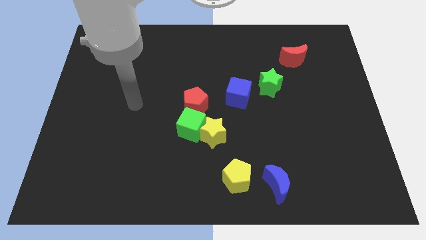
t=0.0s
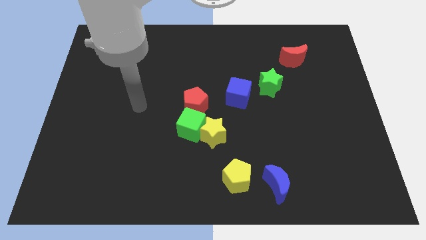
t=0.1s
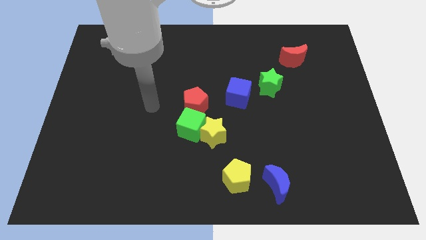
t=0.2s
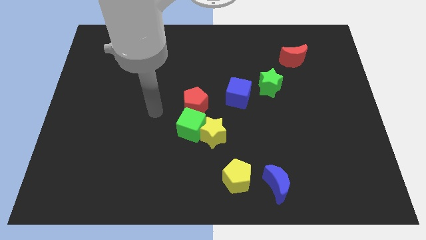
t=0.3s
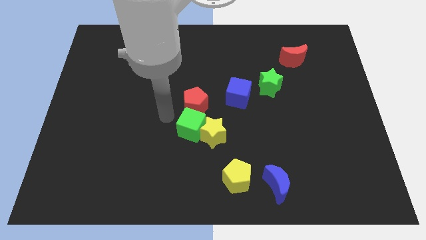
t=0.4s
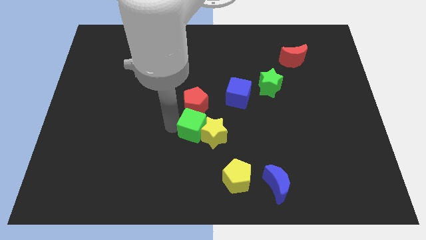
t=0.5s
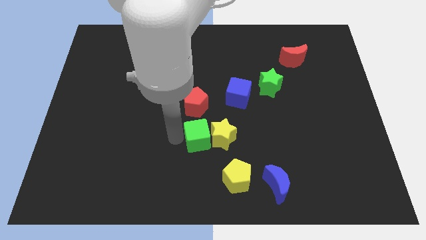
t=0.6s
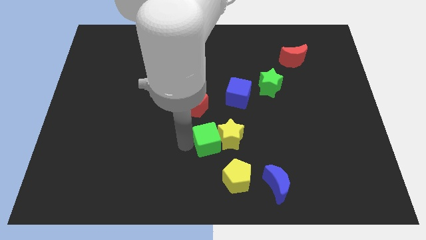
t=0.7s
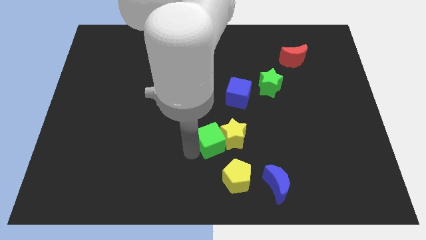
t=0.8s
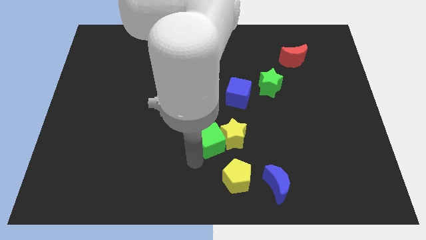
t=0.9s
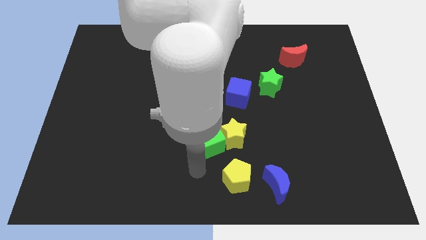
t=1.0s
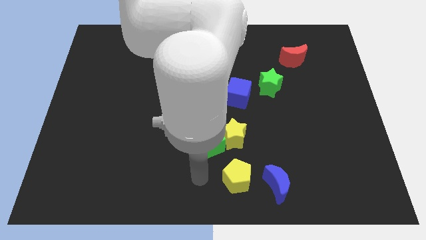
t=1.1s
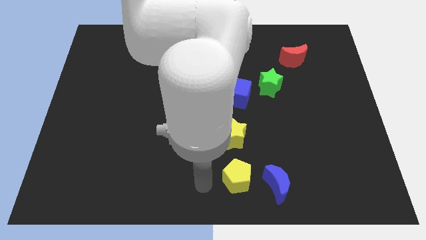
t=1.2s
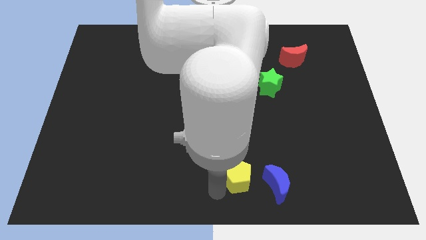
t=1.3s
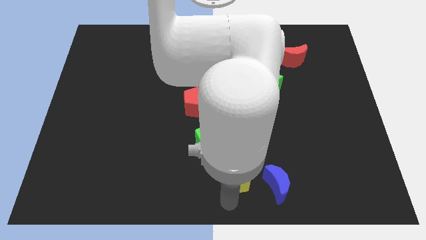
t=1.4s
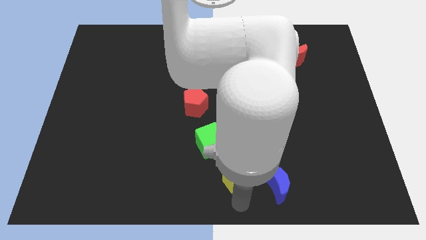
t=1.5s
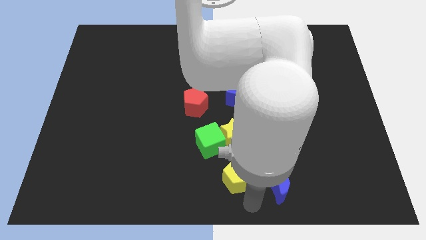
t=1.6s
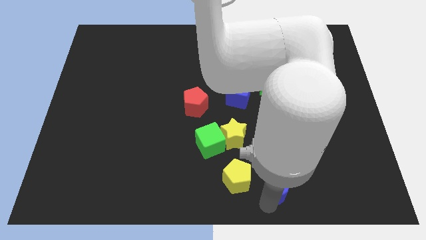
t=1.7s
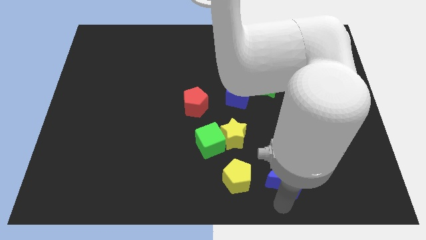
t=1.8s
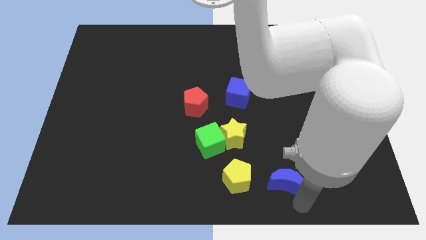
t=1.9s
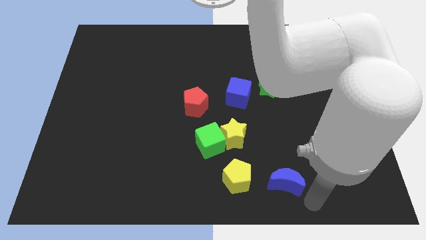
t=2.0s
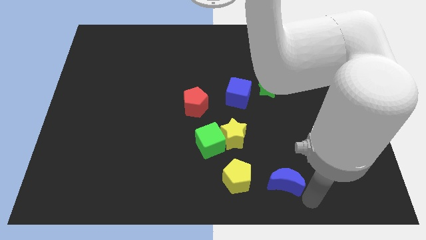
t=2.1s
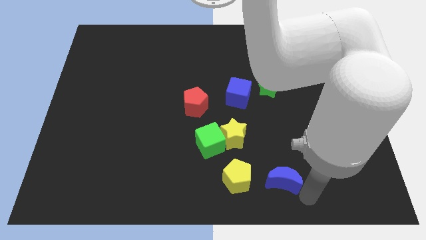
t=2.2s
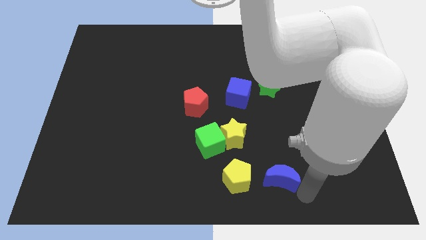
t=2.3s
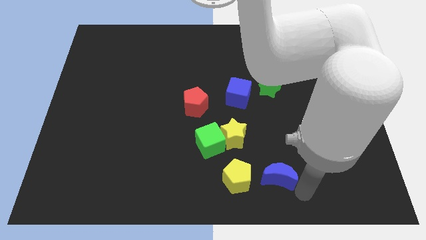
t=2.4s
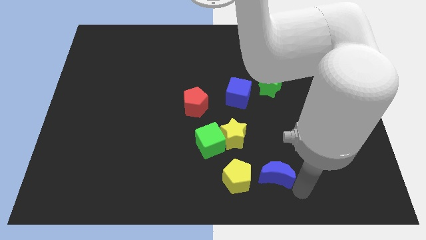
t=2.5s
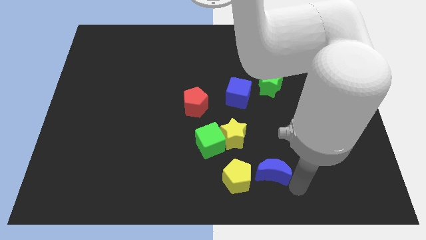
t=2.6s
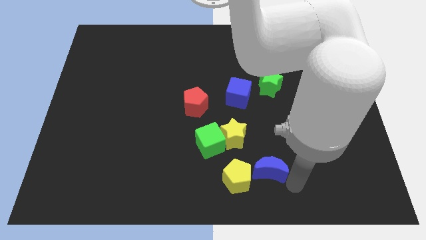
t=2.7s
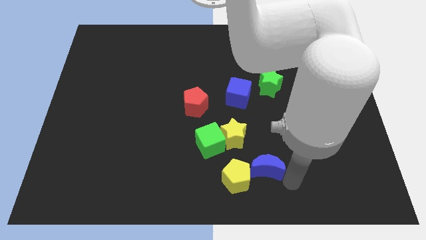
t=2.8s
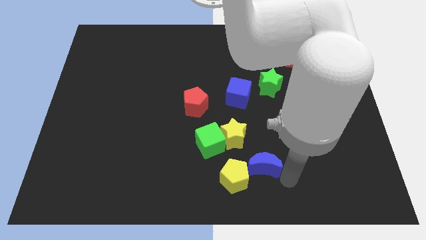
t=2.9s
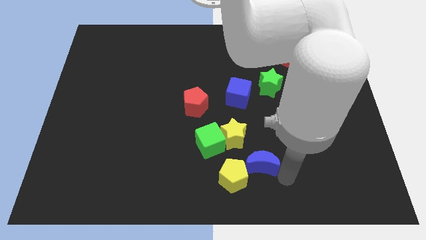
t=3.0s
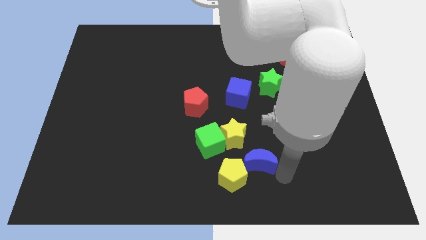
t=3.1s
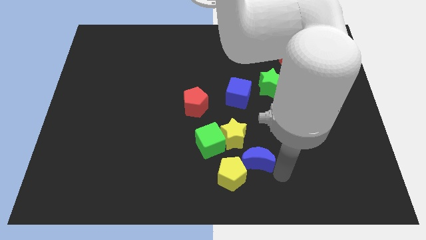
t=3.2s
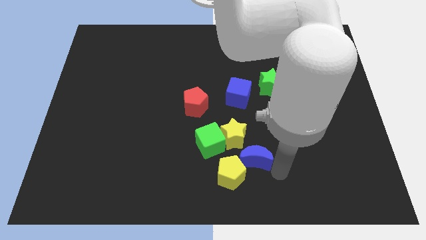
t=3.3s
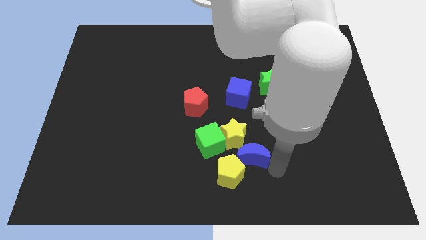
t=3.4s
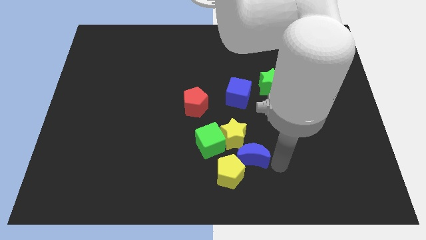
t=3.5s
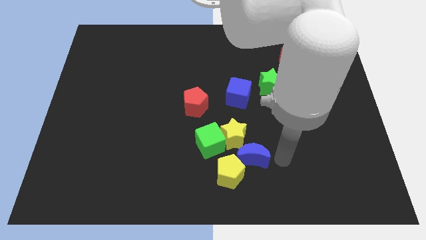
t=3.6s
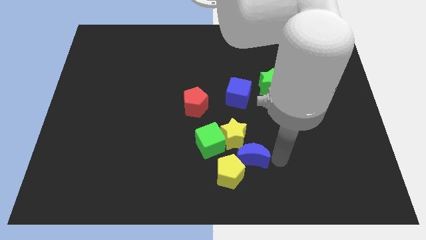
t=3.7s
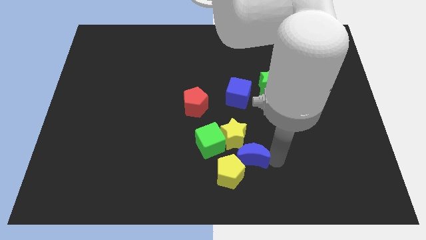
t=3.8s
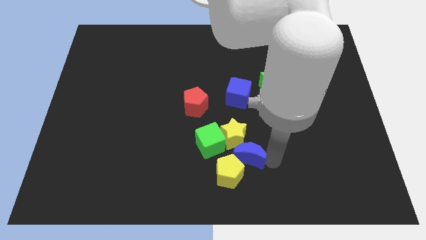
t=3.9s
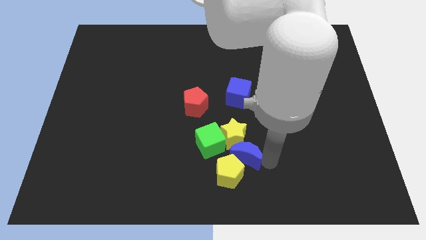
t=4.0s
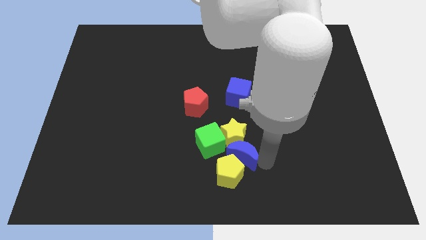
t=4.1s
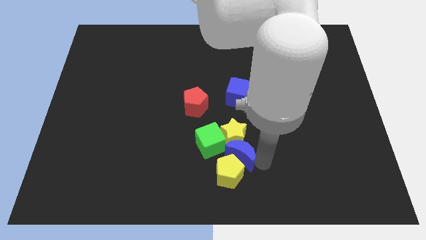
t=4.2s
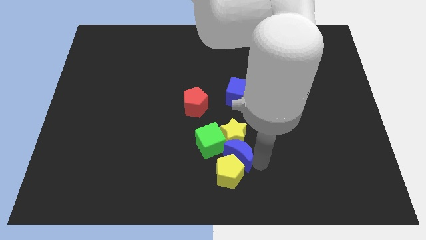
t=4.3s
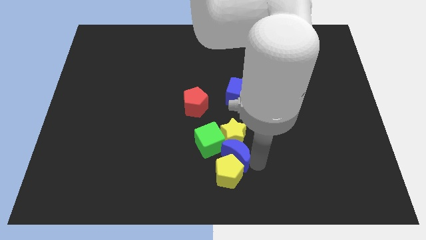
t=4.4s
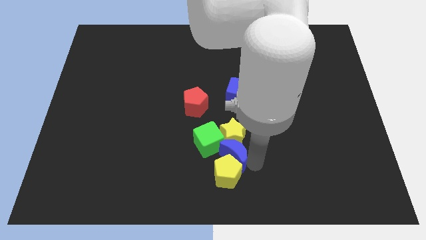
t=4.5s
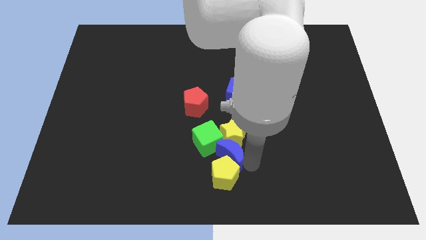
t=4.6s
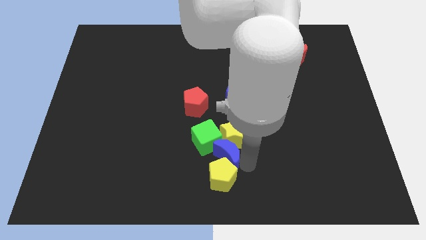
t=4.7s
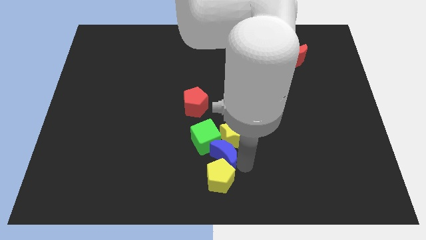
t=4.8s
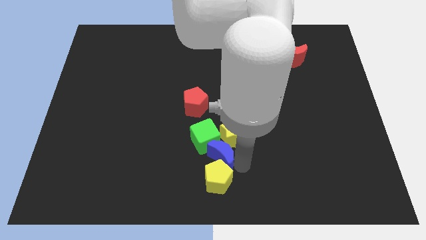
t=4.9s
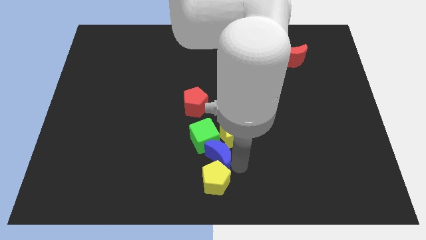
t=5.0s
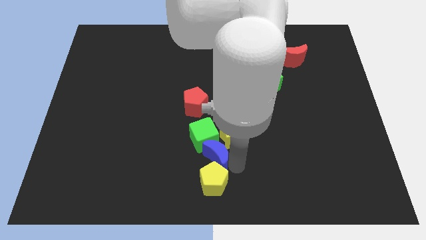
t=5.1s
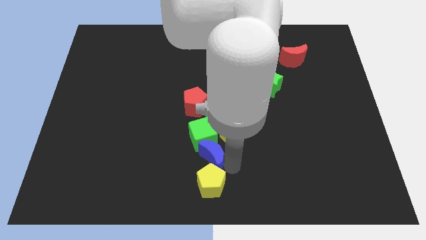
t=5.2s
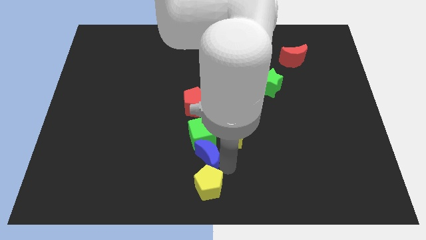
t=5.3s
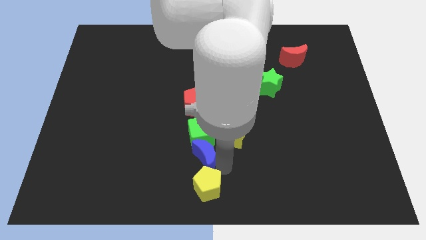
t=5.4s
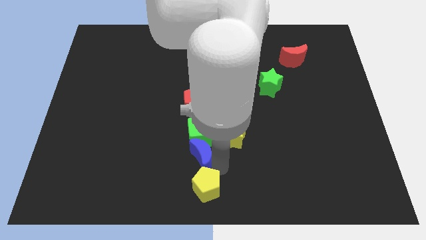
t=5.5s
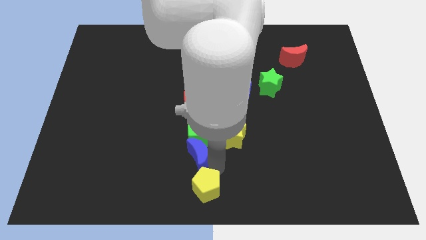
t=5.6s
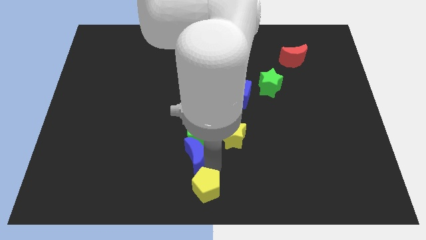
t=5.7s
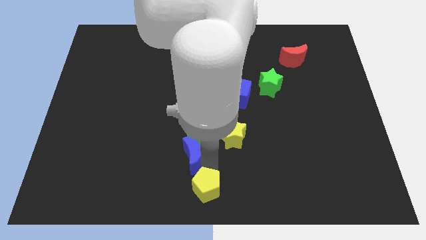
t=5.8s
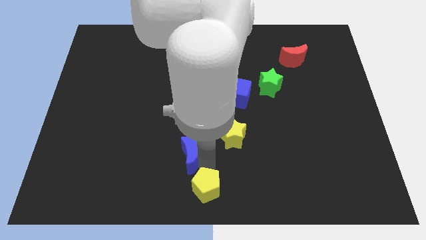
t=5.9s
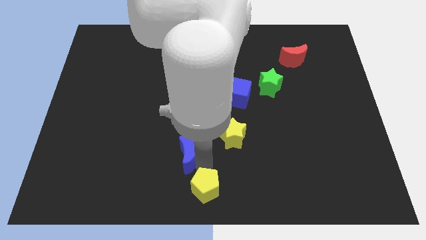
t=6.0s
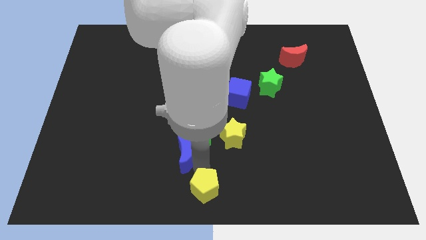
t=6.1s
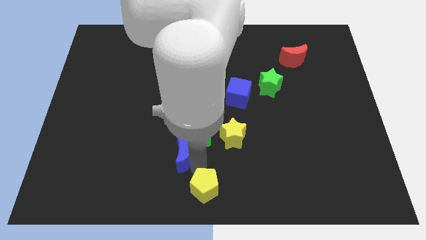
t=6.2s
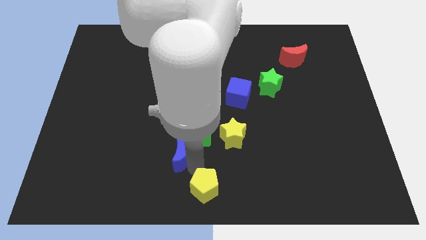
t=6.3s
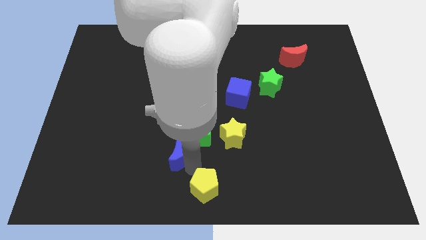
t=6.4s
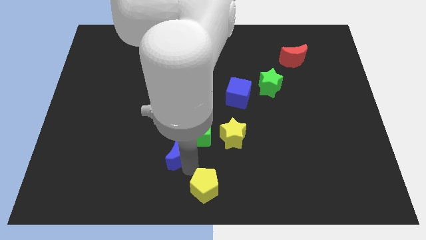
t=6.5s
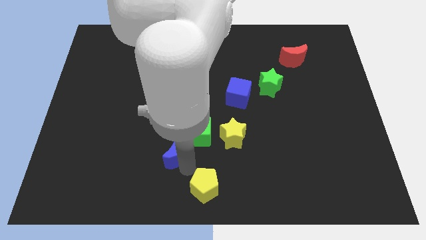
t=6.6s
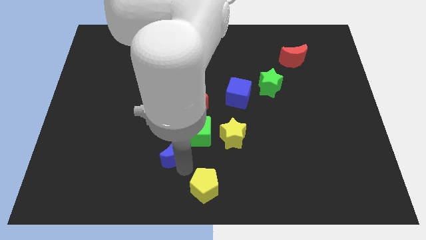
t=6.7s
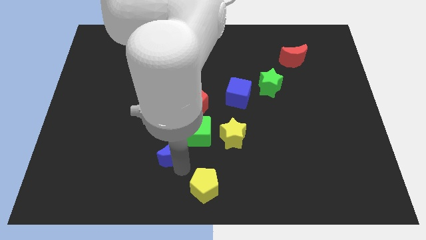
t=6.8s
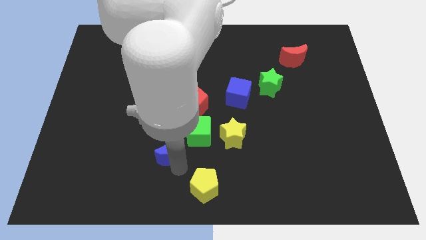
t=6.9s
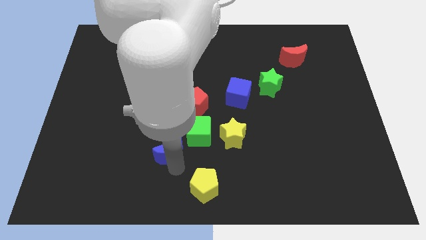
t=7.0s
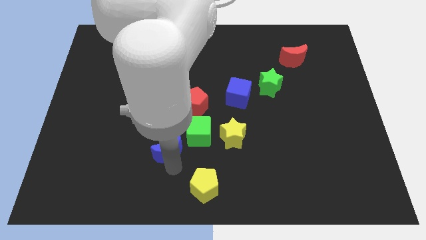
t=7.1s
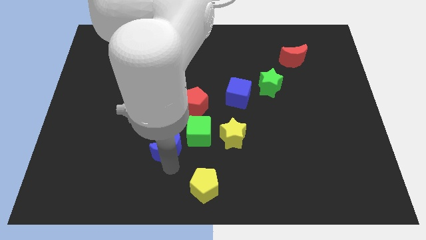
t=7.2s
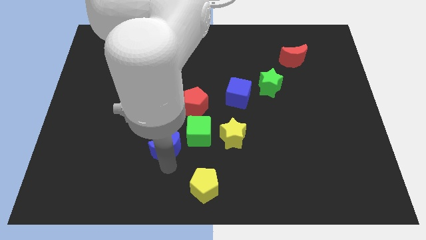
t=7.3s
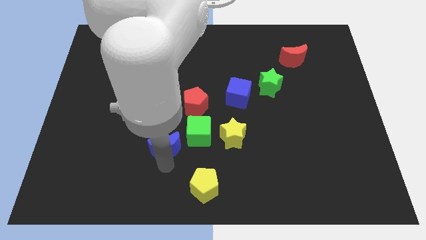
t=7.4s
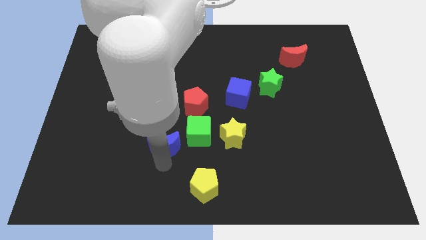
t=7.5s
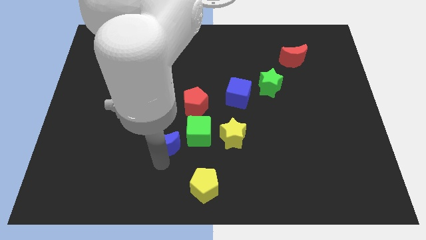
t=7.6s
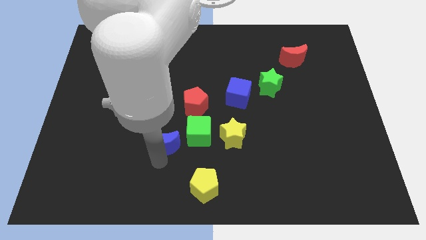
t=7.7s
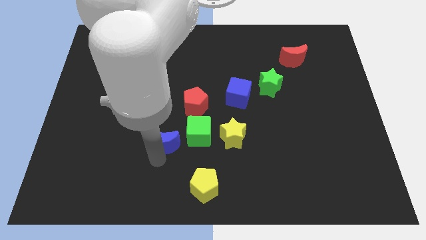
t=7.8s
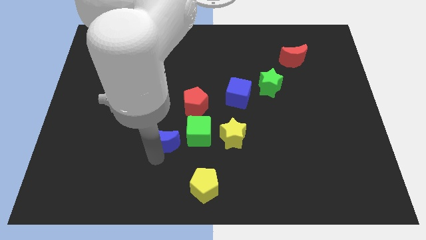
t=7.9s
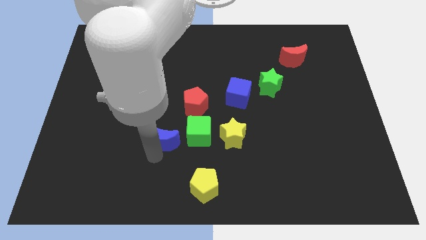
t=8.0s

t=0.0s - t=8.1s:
push the blue moon diagonally up and left
